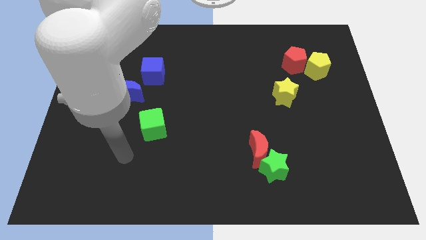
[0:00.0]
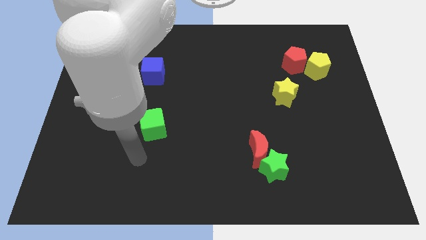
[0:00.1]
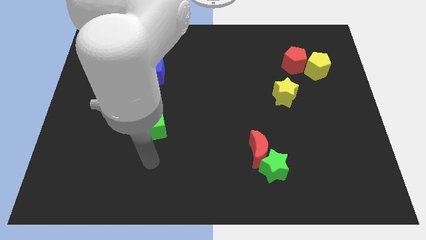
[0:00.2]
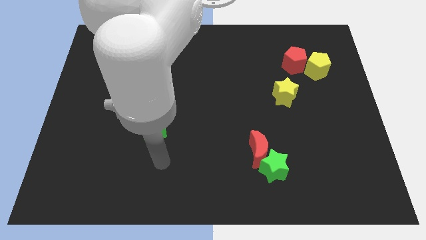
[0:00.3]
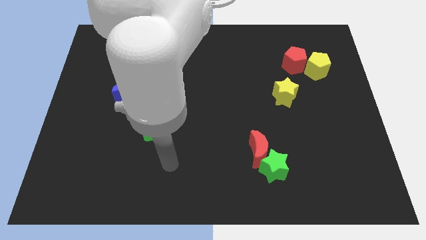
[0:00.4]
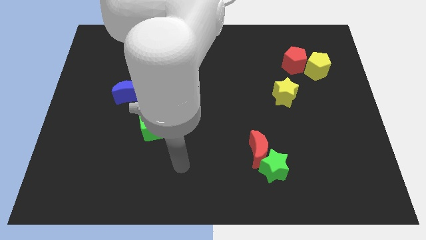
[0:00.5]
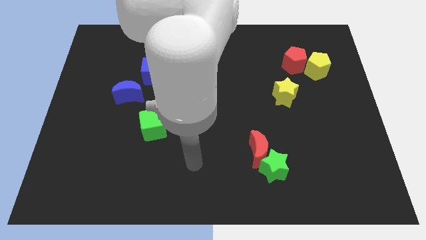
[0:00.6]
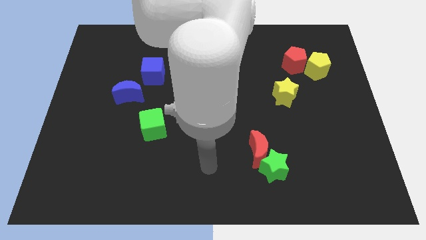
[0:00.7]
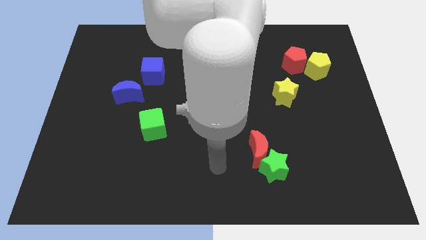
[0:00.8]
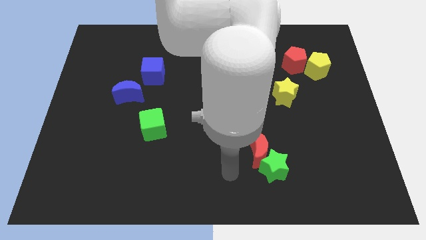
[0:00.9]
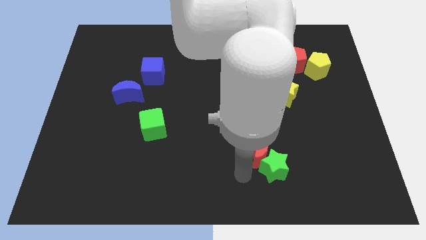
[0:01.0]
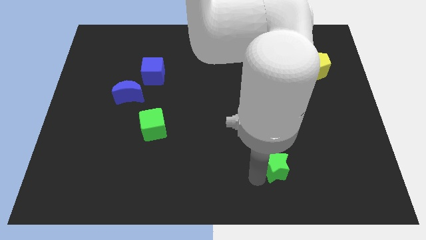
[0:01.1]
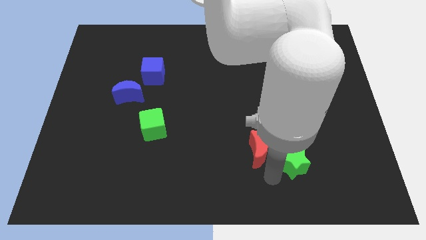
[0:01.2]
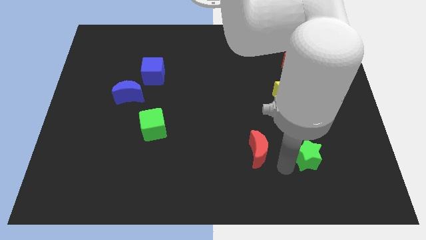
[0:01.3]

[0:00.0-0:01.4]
pull the red moon apart from the green star

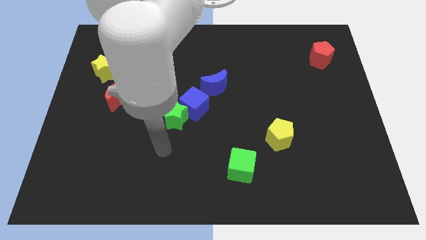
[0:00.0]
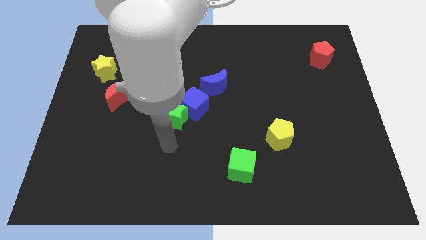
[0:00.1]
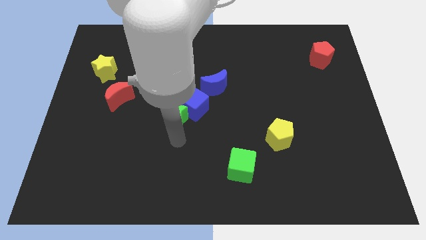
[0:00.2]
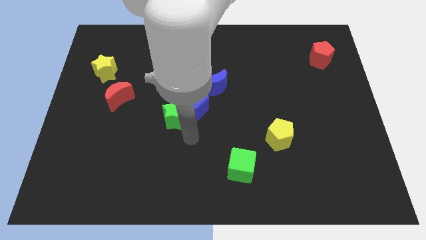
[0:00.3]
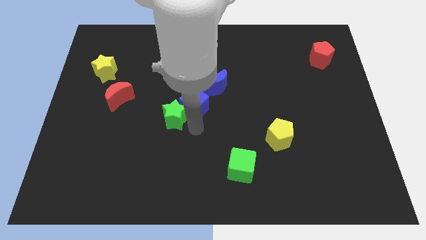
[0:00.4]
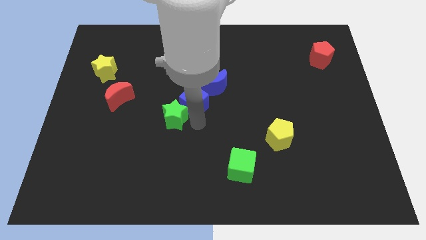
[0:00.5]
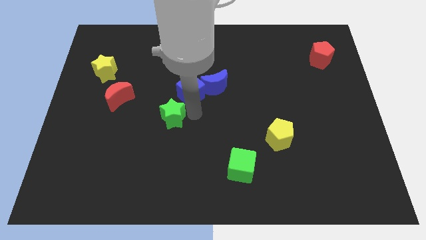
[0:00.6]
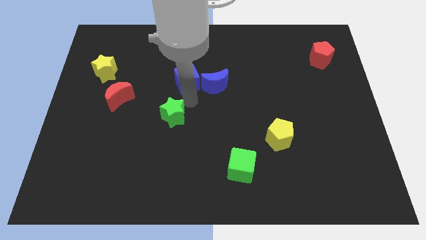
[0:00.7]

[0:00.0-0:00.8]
separate the green star from the blue cube

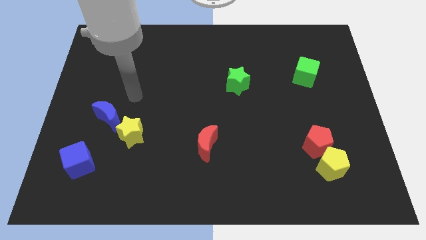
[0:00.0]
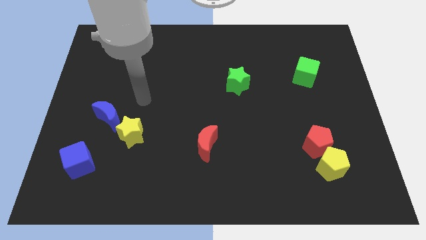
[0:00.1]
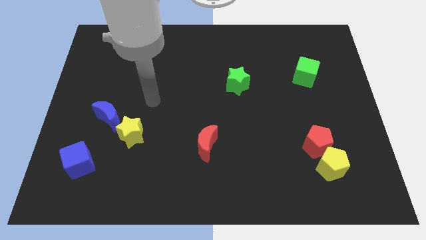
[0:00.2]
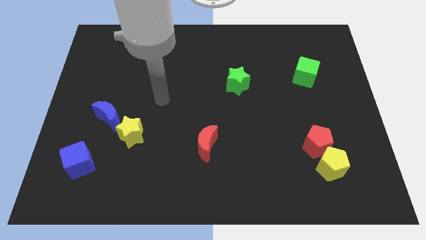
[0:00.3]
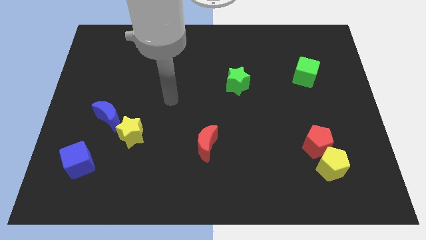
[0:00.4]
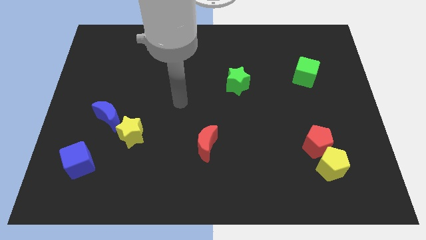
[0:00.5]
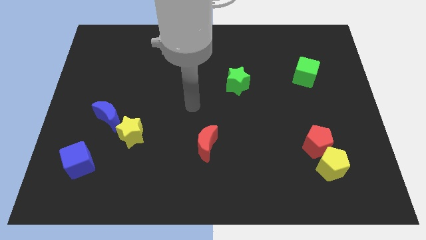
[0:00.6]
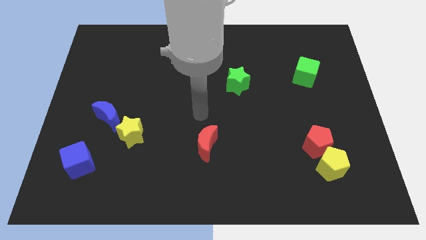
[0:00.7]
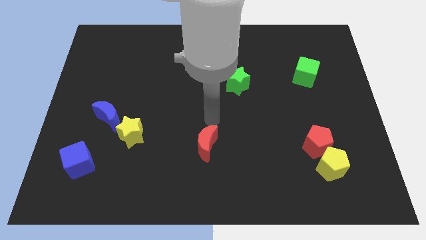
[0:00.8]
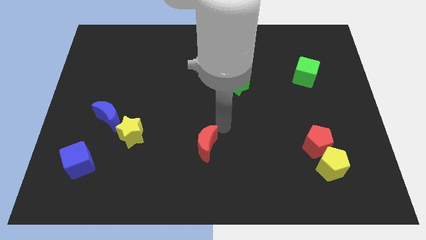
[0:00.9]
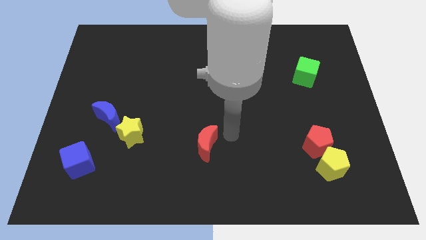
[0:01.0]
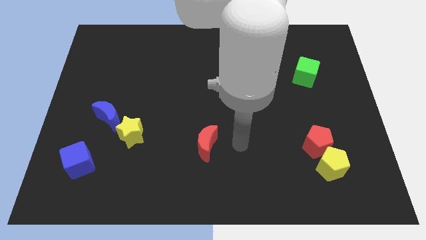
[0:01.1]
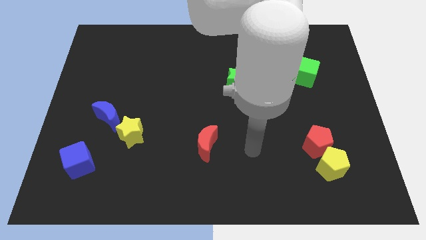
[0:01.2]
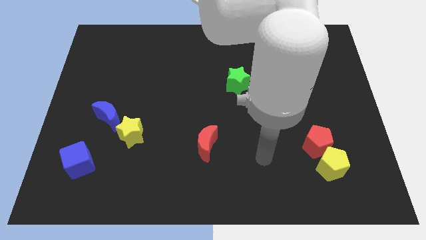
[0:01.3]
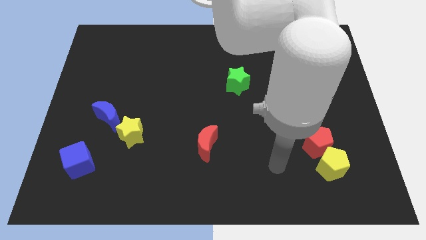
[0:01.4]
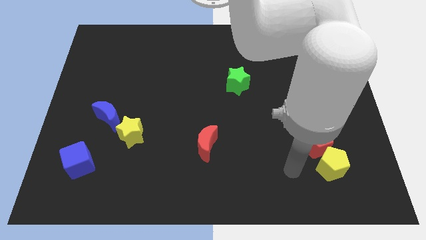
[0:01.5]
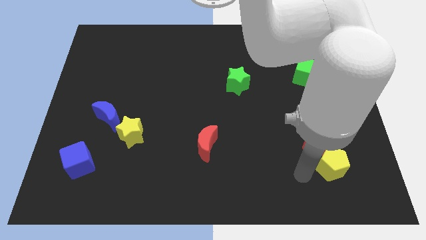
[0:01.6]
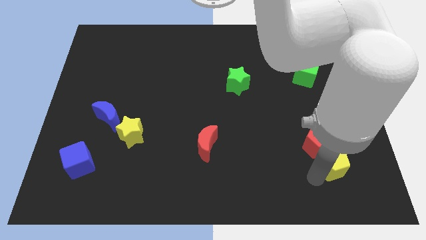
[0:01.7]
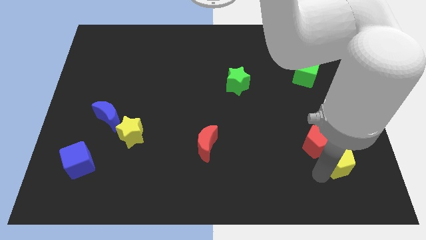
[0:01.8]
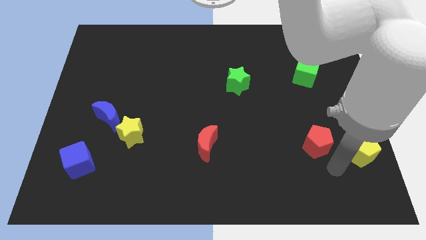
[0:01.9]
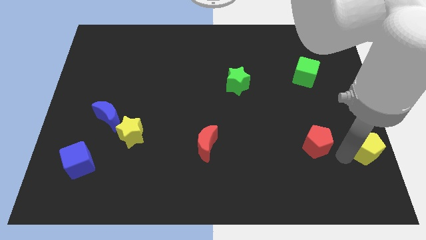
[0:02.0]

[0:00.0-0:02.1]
pull the red pentagon apart from the yellow pentagon

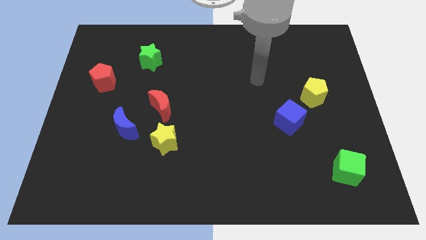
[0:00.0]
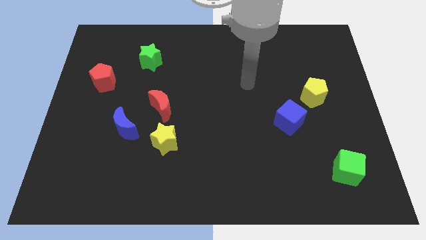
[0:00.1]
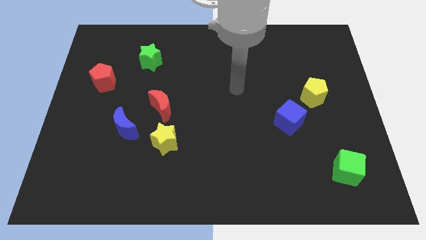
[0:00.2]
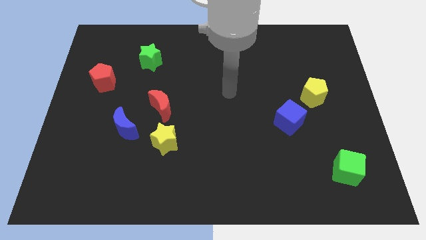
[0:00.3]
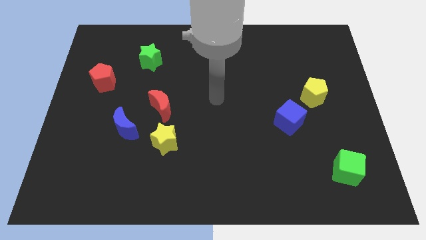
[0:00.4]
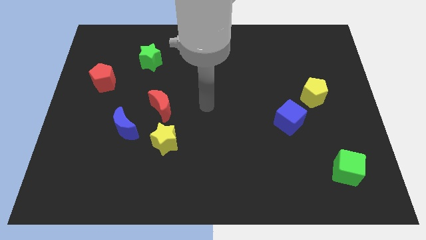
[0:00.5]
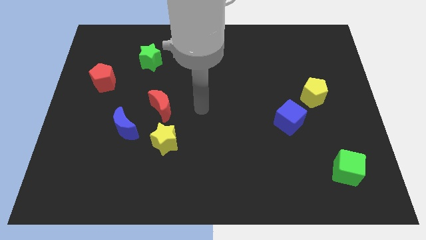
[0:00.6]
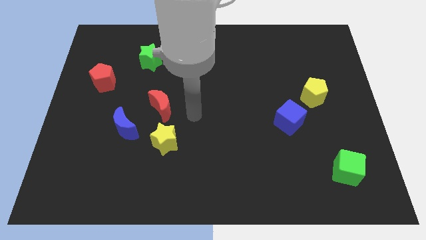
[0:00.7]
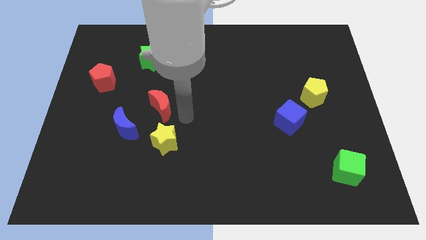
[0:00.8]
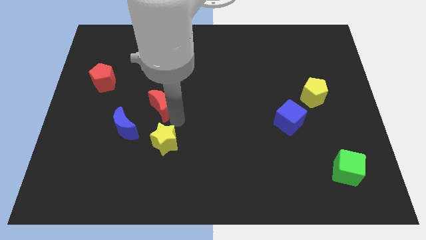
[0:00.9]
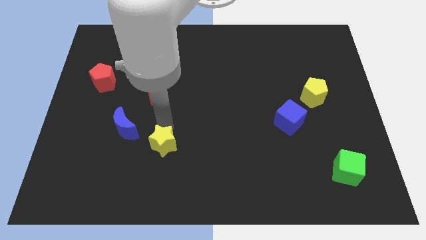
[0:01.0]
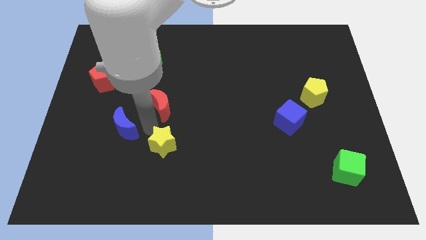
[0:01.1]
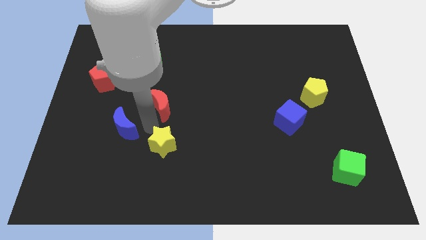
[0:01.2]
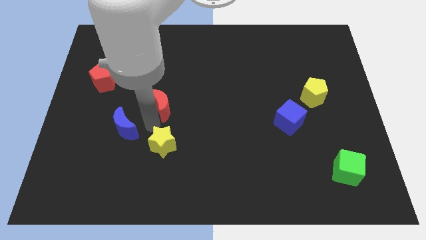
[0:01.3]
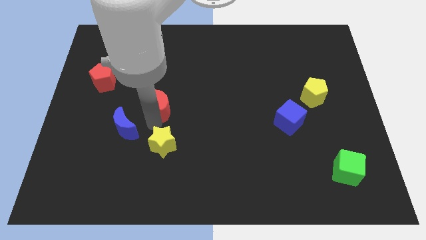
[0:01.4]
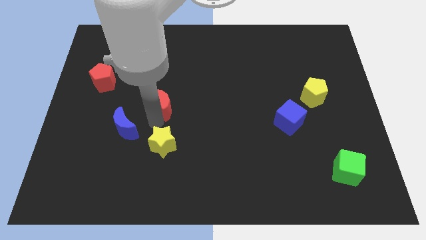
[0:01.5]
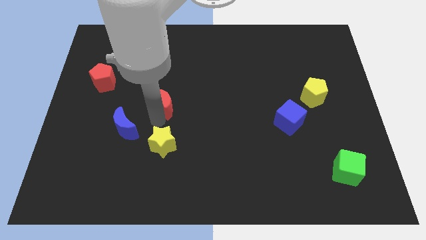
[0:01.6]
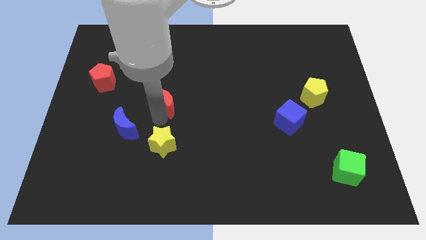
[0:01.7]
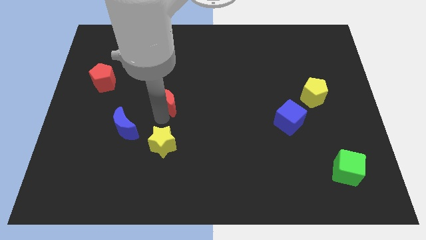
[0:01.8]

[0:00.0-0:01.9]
separate the red moon from the yellow star and blue moon

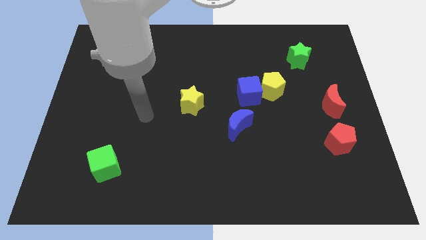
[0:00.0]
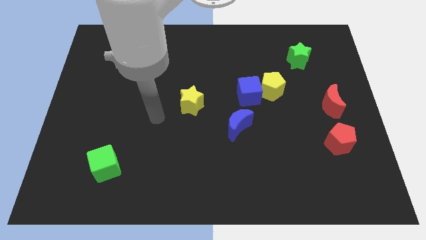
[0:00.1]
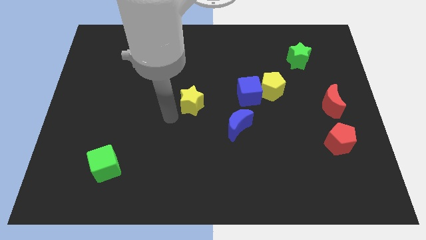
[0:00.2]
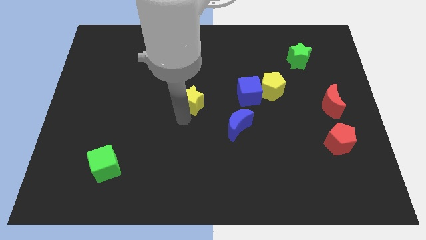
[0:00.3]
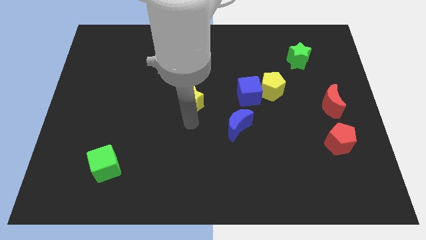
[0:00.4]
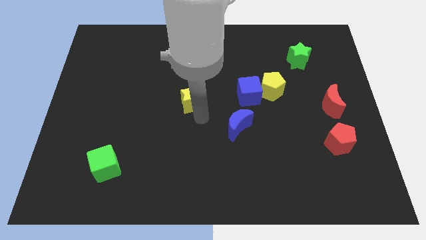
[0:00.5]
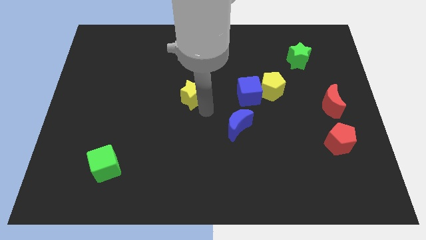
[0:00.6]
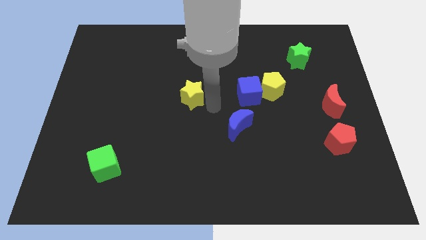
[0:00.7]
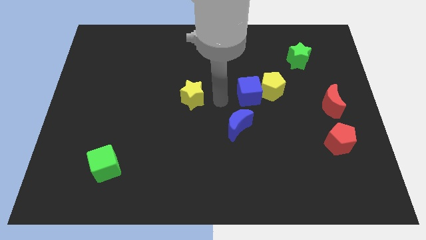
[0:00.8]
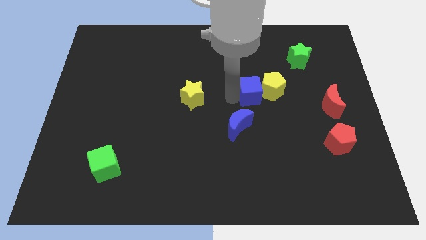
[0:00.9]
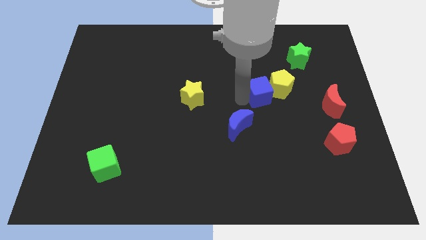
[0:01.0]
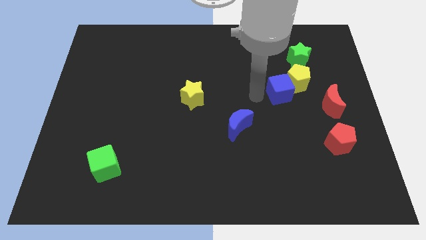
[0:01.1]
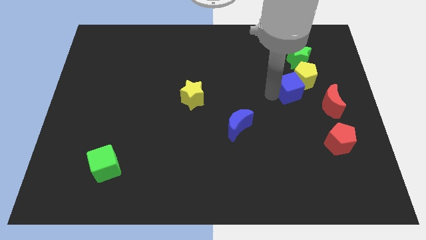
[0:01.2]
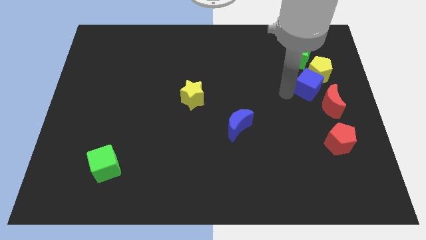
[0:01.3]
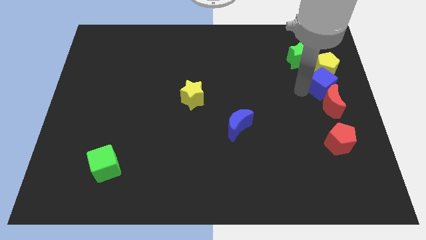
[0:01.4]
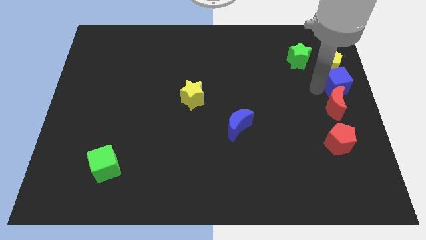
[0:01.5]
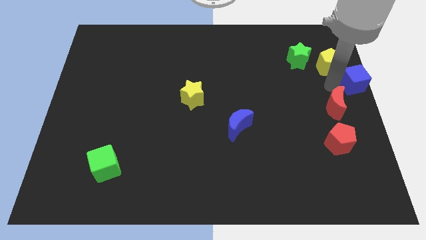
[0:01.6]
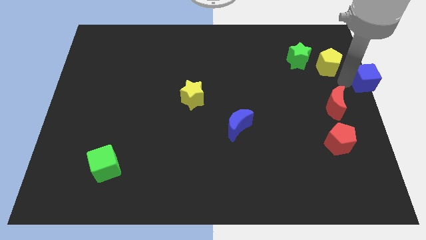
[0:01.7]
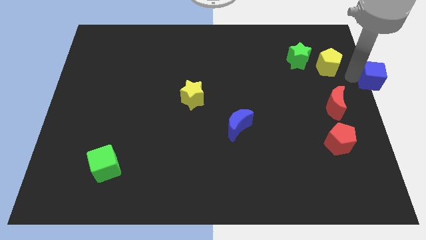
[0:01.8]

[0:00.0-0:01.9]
separate the yellow pentagon from the blue cube

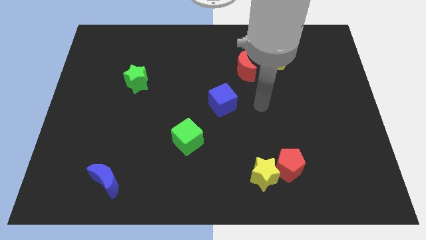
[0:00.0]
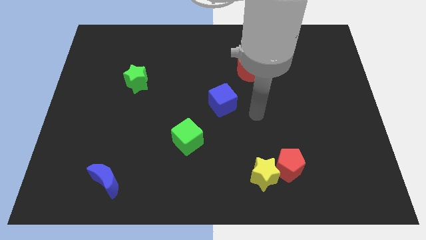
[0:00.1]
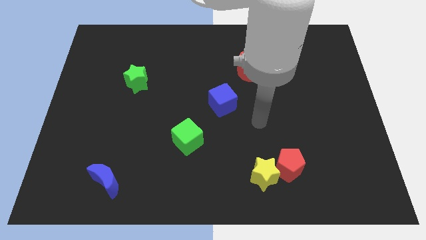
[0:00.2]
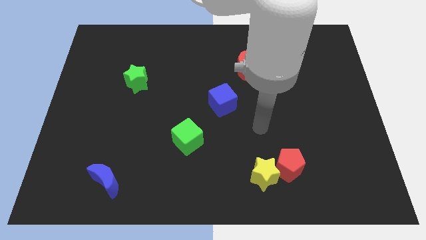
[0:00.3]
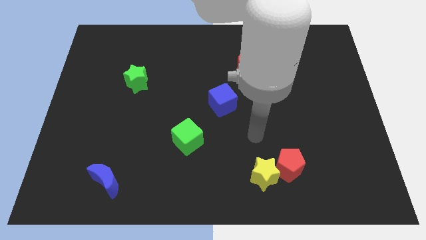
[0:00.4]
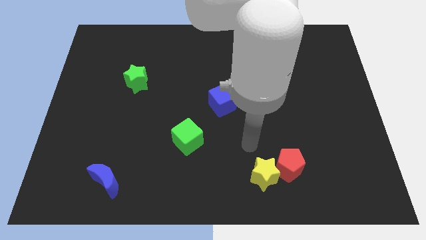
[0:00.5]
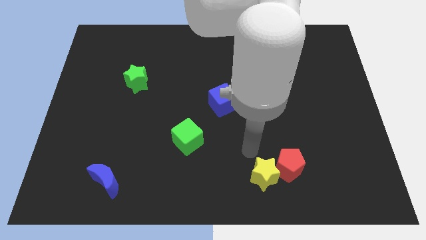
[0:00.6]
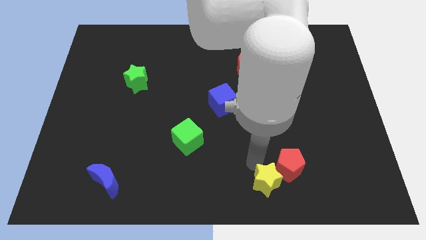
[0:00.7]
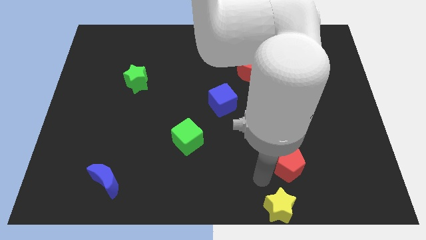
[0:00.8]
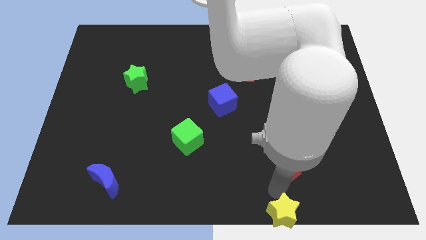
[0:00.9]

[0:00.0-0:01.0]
separate the red pentagon from the yellow star

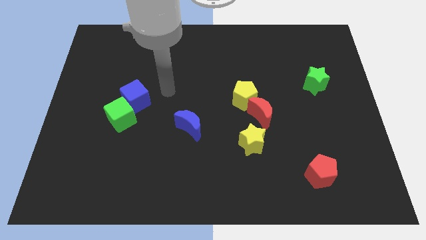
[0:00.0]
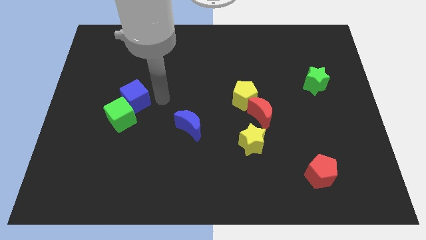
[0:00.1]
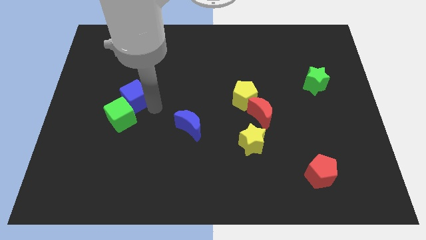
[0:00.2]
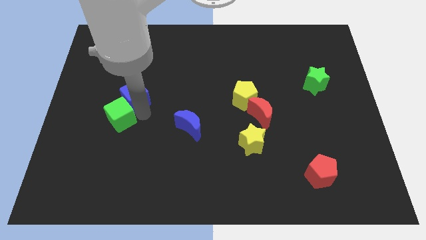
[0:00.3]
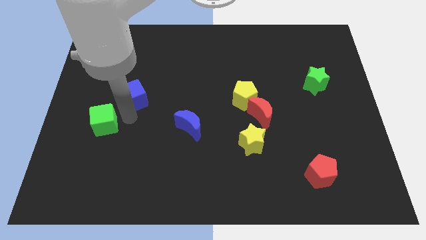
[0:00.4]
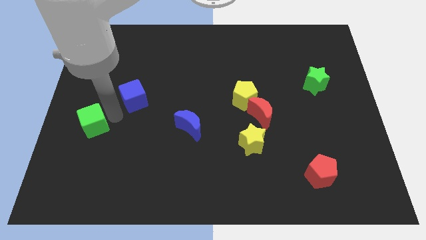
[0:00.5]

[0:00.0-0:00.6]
move the blue cube away from the green cube
